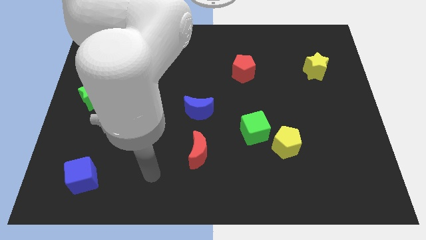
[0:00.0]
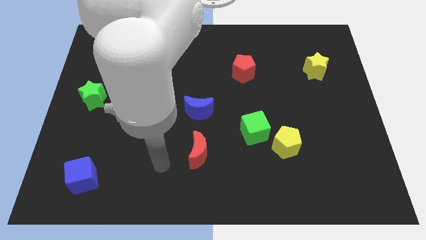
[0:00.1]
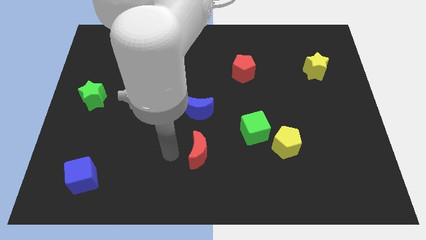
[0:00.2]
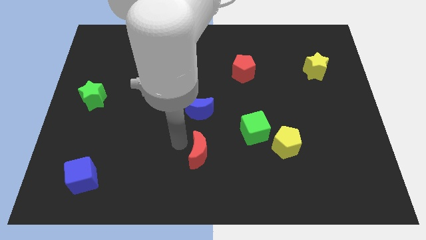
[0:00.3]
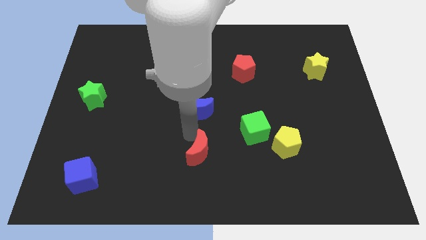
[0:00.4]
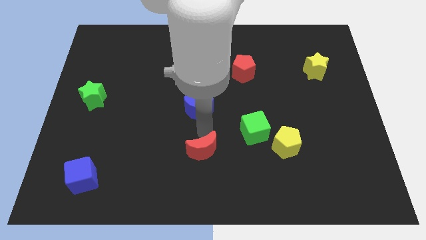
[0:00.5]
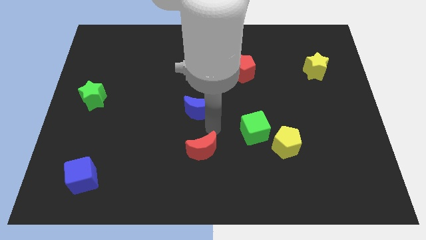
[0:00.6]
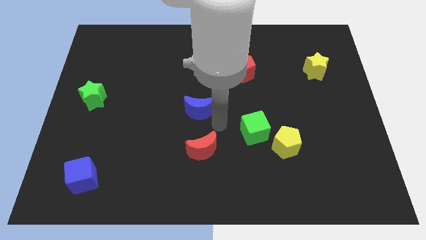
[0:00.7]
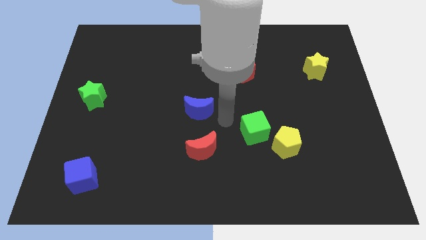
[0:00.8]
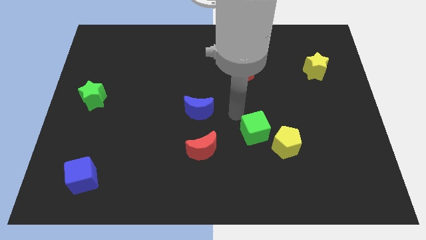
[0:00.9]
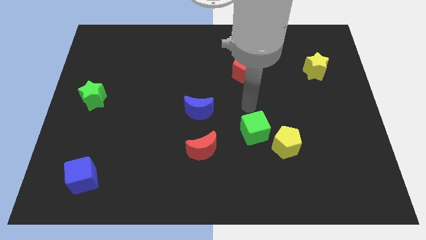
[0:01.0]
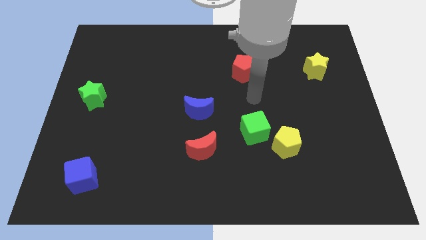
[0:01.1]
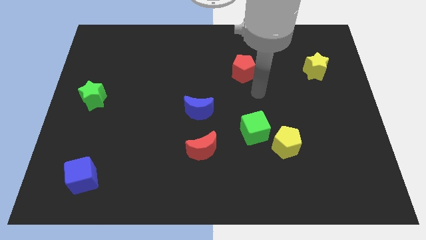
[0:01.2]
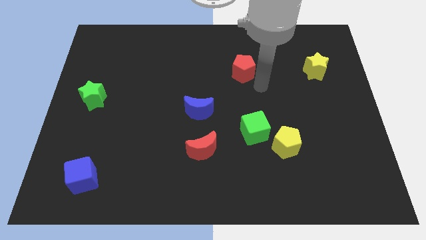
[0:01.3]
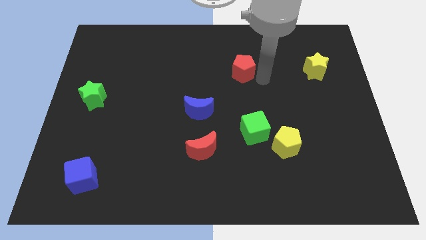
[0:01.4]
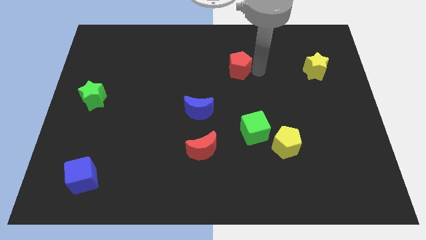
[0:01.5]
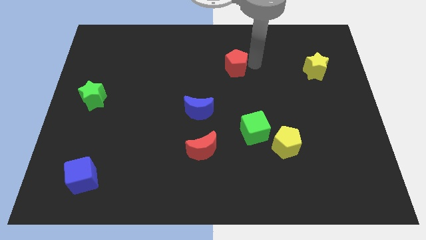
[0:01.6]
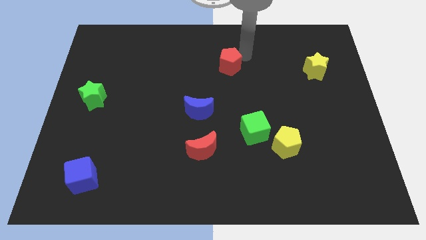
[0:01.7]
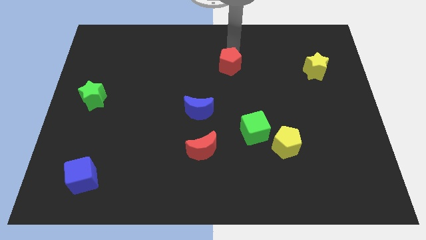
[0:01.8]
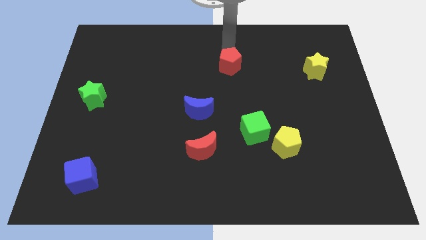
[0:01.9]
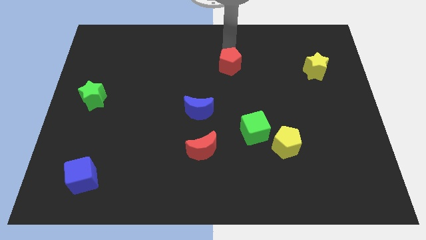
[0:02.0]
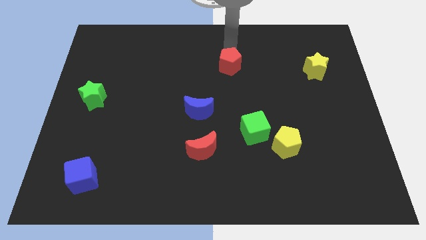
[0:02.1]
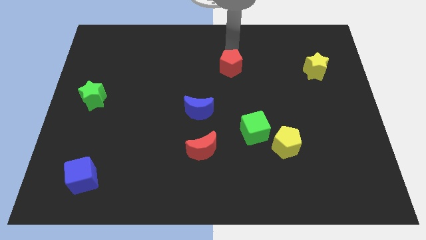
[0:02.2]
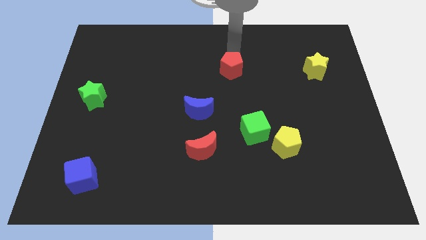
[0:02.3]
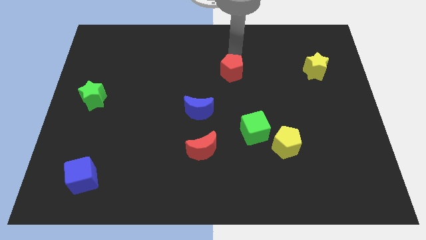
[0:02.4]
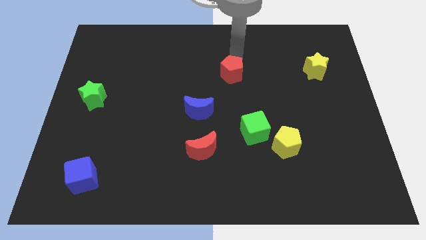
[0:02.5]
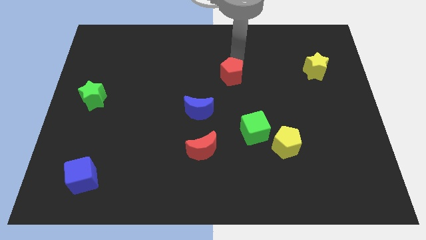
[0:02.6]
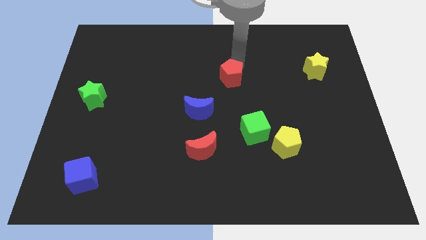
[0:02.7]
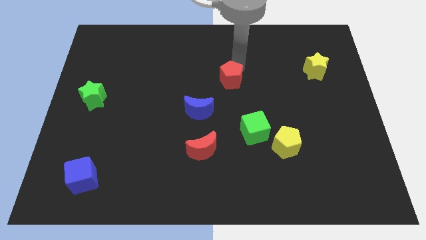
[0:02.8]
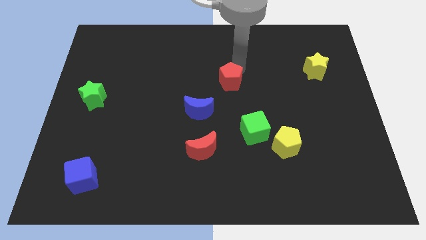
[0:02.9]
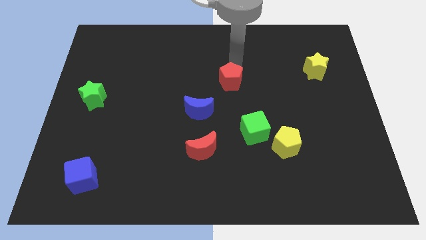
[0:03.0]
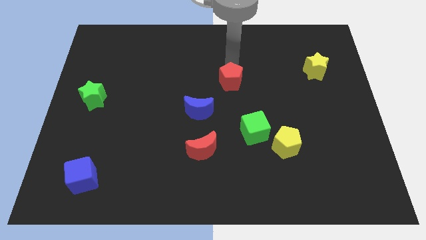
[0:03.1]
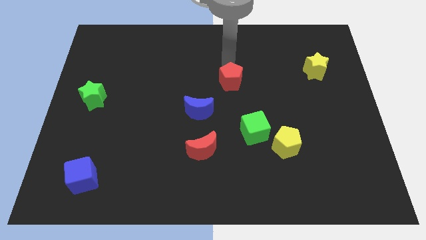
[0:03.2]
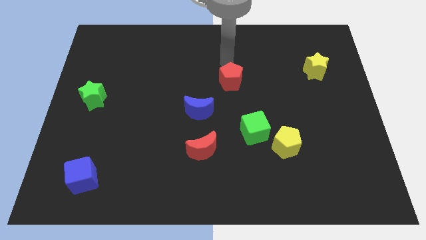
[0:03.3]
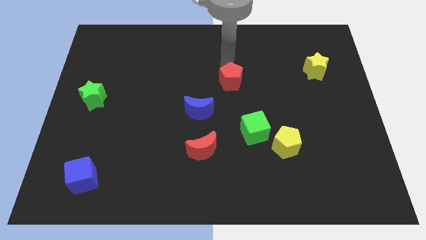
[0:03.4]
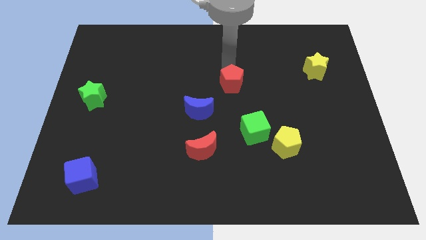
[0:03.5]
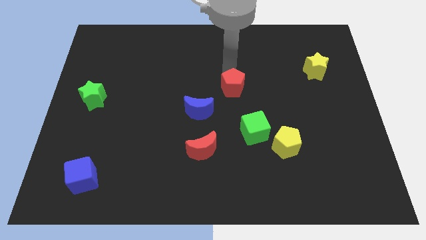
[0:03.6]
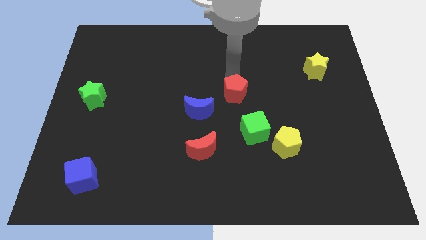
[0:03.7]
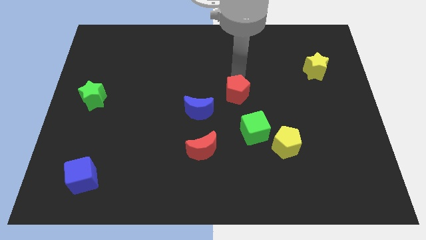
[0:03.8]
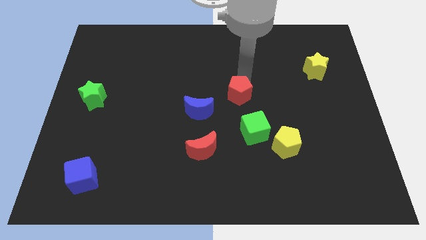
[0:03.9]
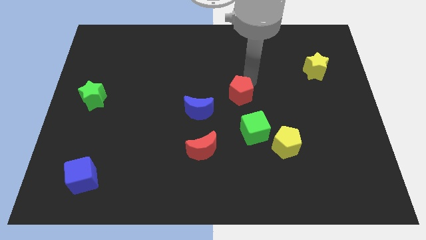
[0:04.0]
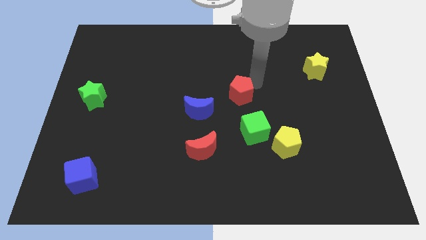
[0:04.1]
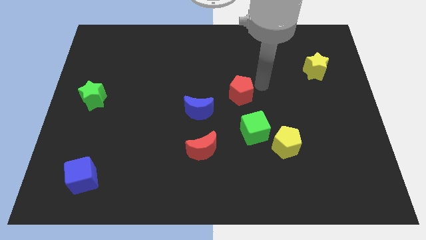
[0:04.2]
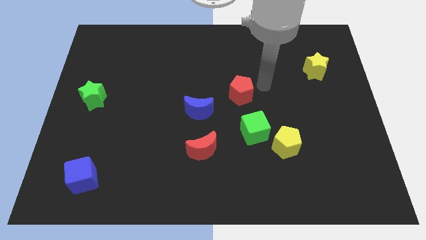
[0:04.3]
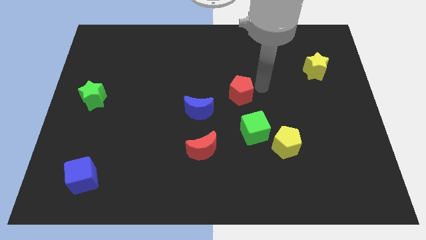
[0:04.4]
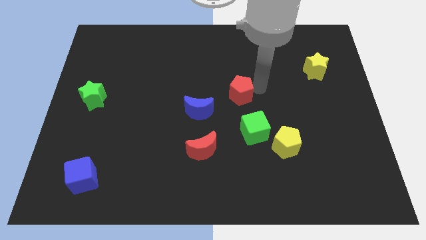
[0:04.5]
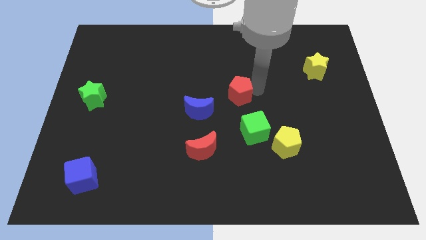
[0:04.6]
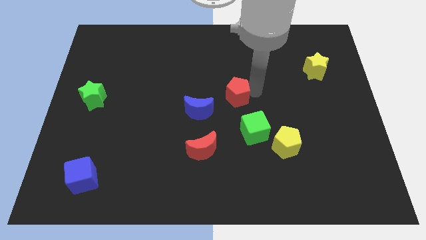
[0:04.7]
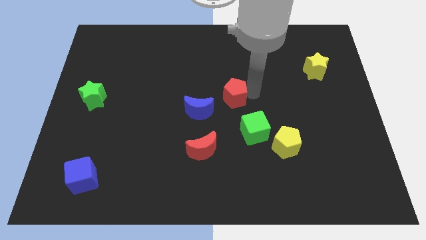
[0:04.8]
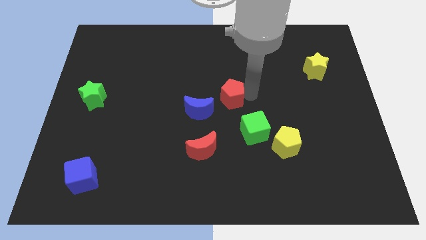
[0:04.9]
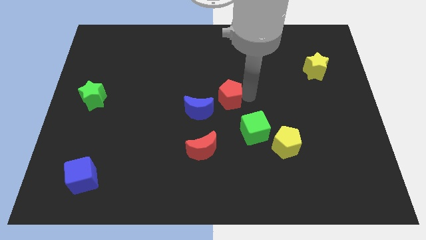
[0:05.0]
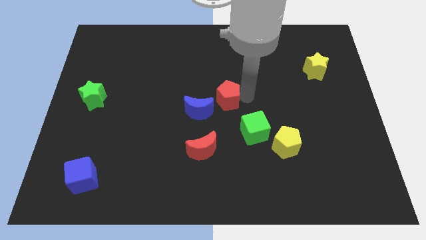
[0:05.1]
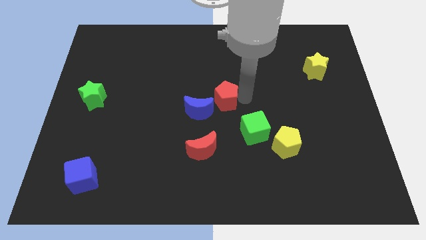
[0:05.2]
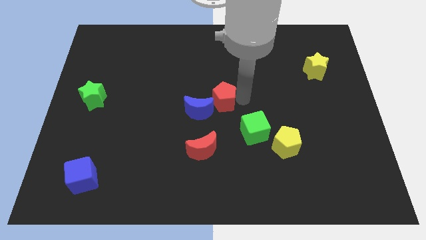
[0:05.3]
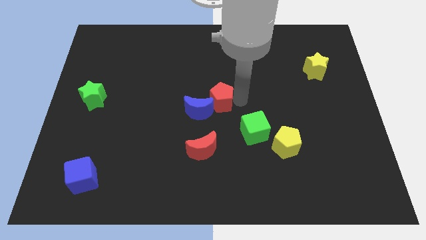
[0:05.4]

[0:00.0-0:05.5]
put the red pentagon to the blue moon

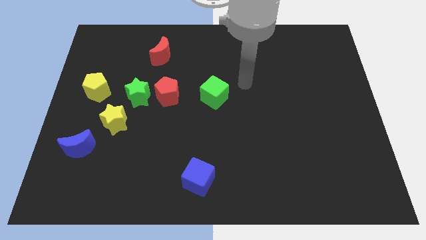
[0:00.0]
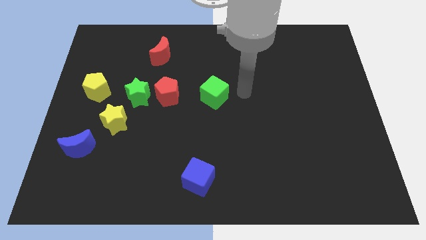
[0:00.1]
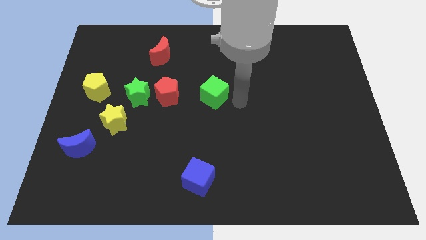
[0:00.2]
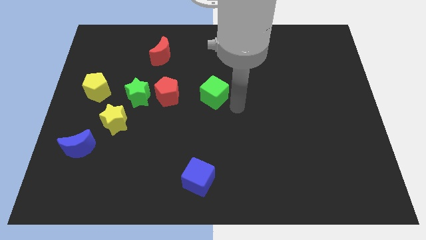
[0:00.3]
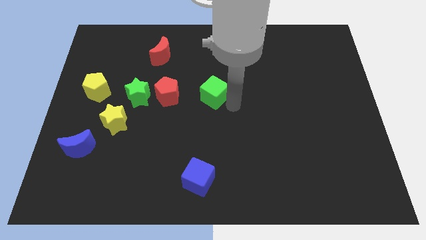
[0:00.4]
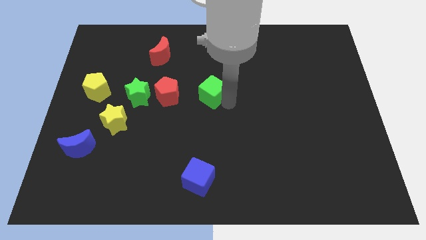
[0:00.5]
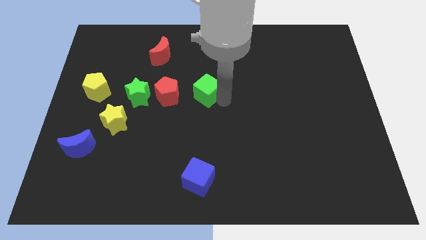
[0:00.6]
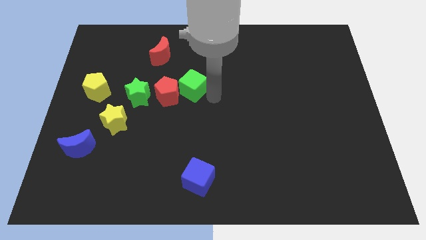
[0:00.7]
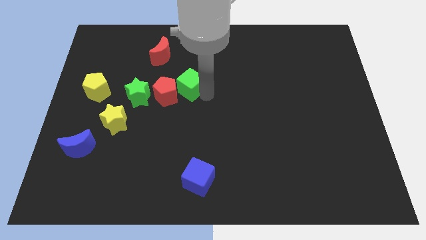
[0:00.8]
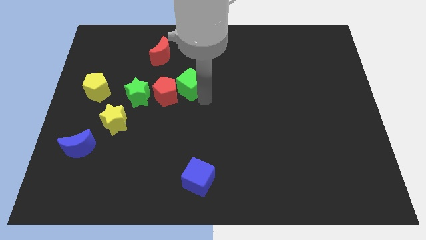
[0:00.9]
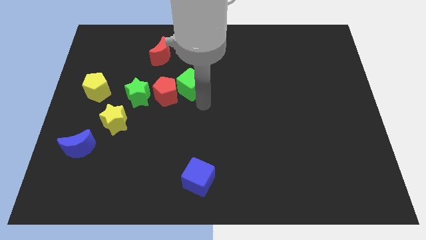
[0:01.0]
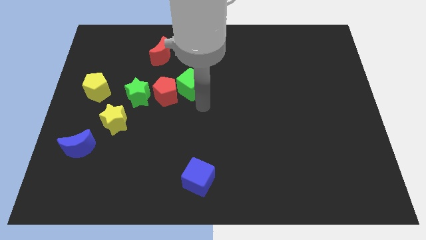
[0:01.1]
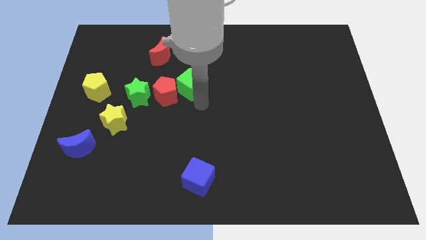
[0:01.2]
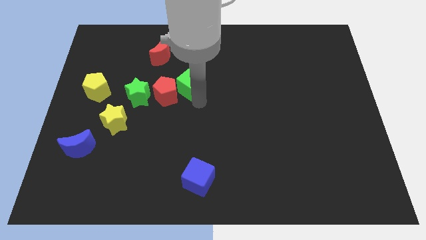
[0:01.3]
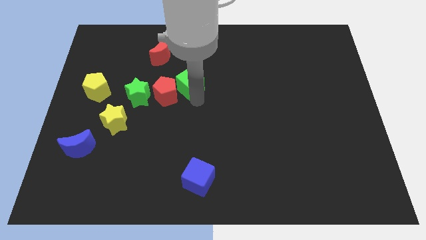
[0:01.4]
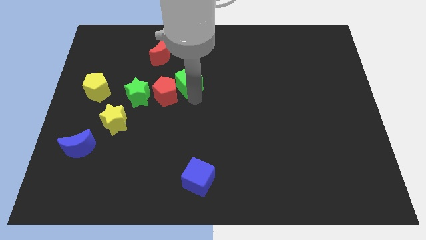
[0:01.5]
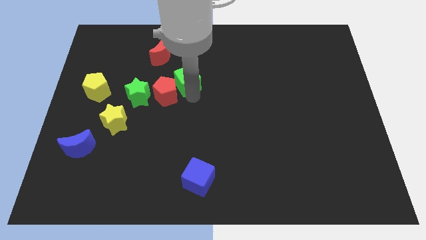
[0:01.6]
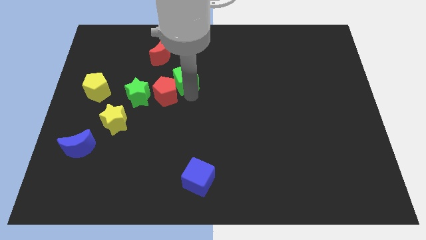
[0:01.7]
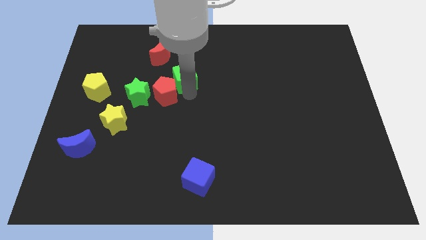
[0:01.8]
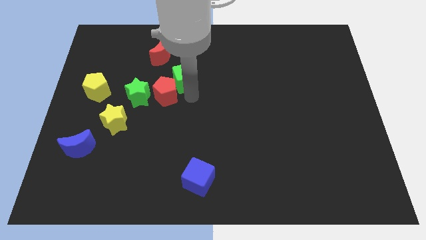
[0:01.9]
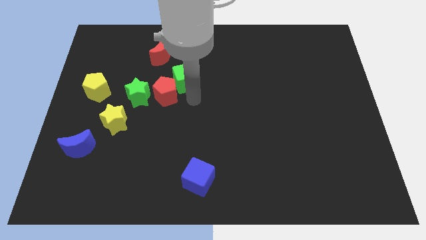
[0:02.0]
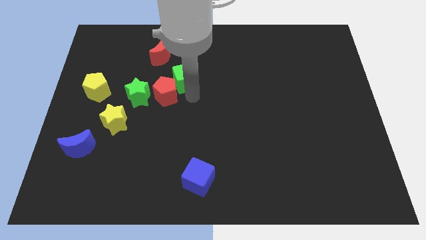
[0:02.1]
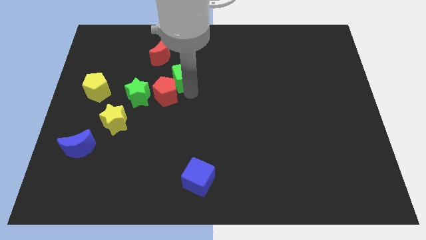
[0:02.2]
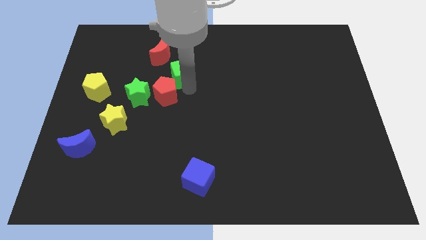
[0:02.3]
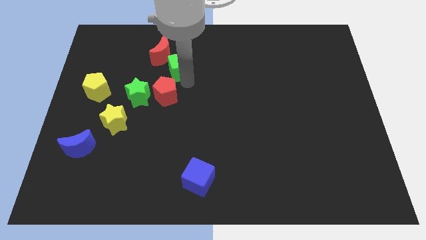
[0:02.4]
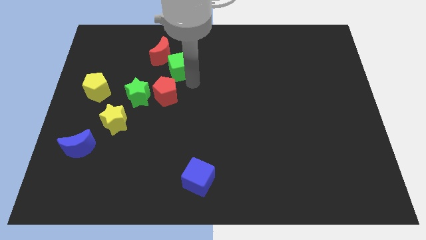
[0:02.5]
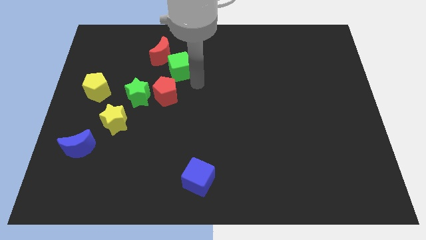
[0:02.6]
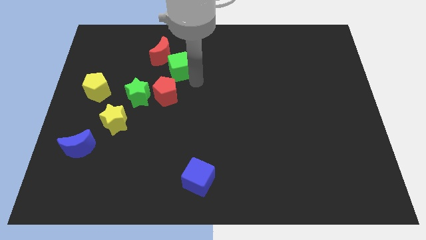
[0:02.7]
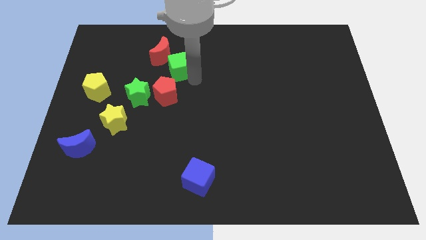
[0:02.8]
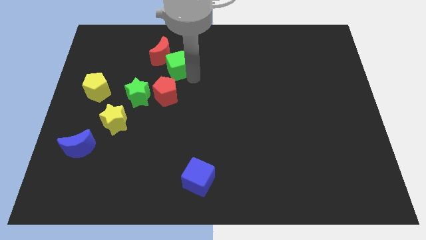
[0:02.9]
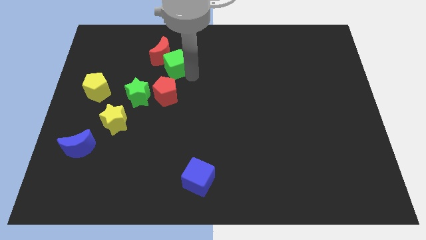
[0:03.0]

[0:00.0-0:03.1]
put the green cube towards the red moon
